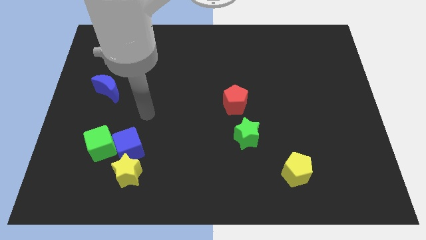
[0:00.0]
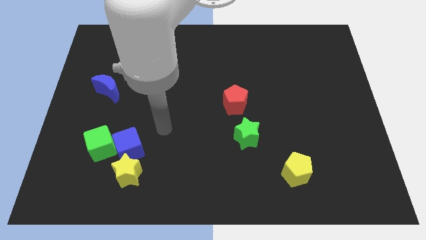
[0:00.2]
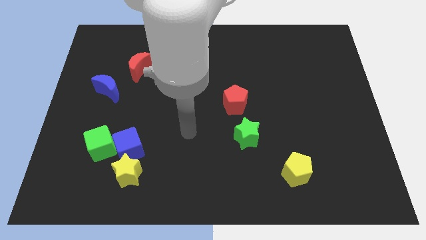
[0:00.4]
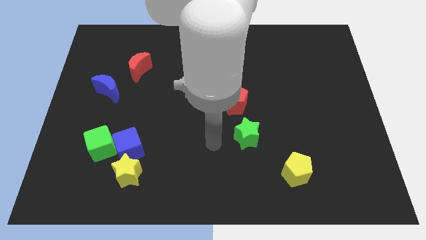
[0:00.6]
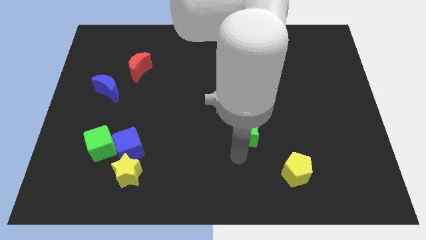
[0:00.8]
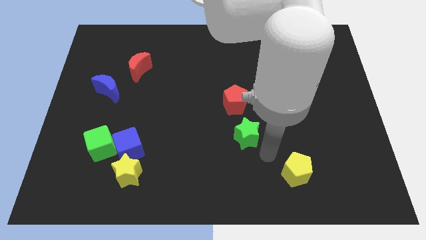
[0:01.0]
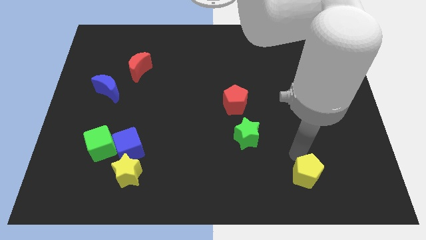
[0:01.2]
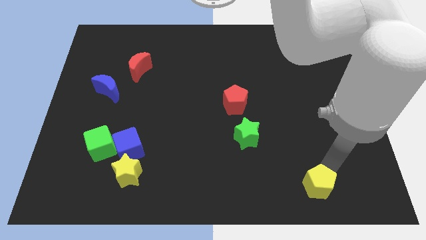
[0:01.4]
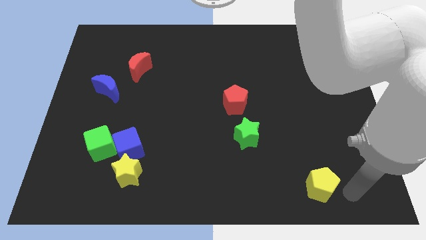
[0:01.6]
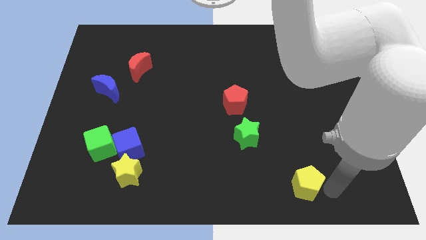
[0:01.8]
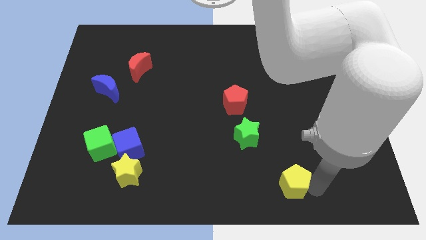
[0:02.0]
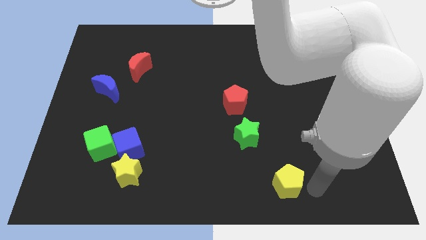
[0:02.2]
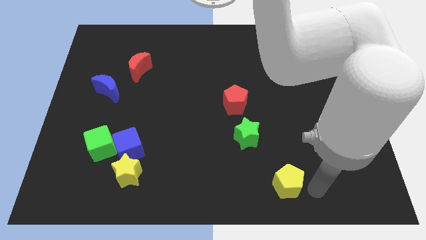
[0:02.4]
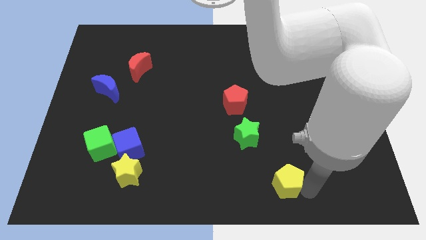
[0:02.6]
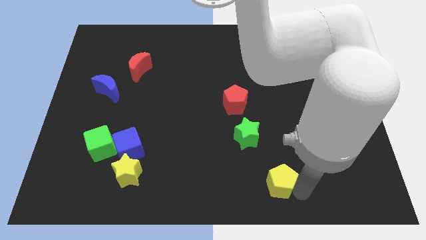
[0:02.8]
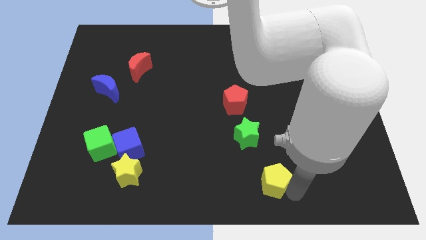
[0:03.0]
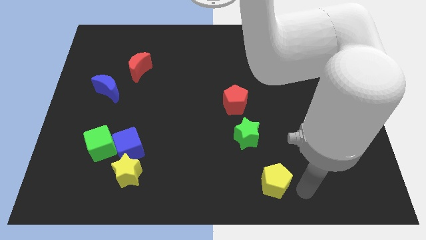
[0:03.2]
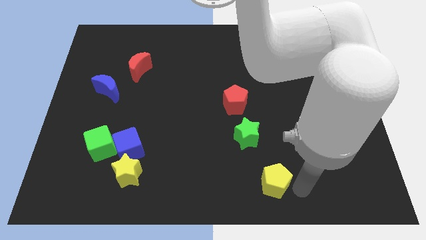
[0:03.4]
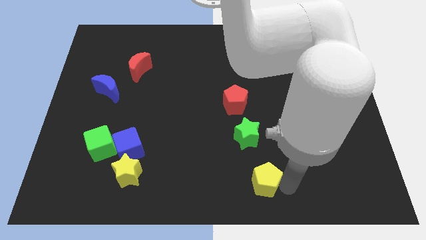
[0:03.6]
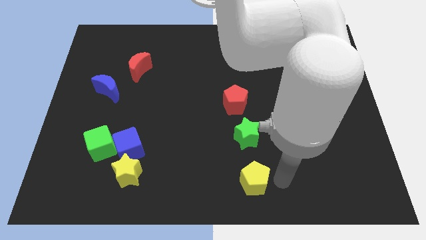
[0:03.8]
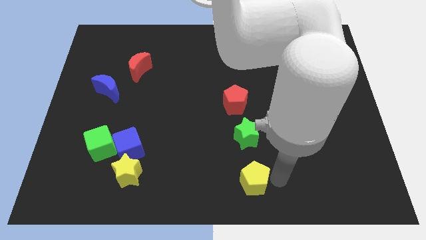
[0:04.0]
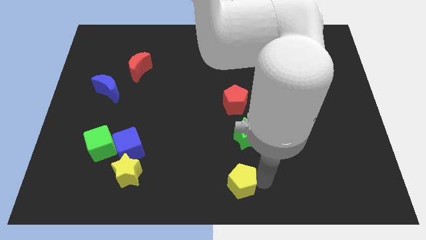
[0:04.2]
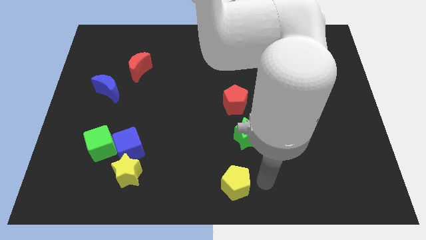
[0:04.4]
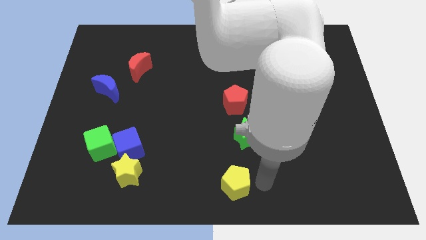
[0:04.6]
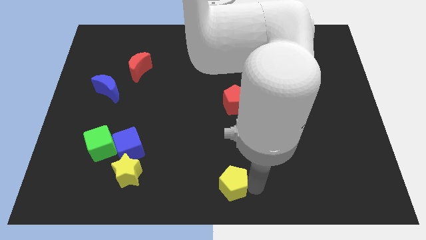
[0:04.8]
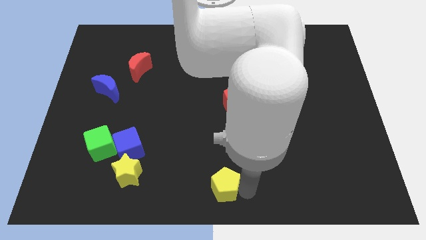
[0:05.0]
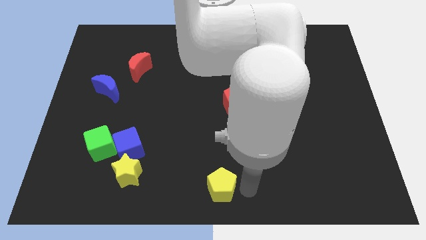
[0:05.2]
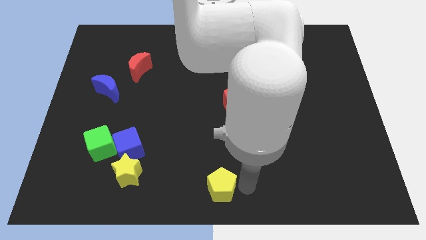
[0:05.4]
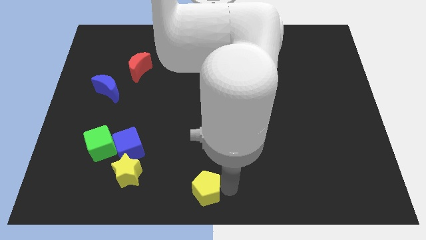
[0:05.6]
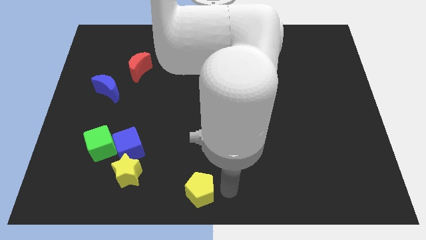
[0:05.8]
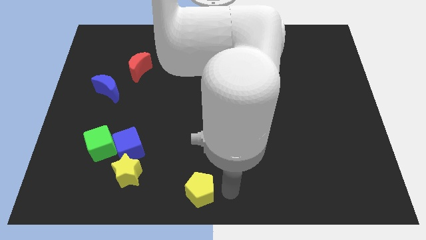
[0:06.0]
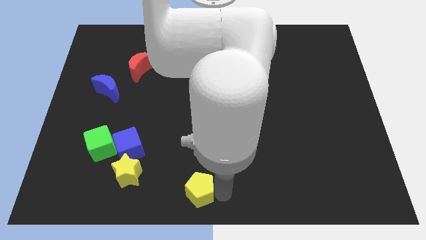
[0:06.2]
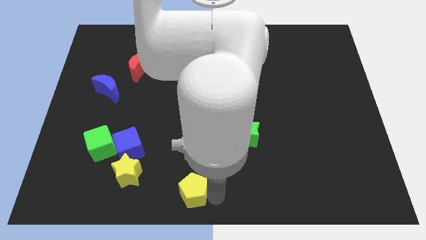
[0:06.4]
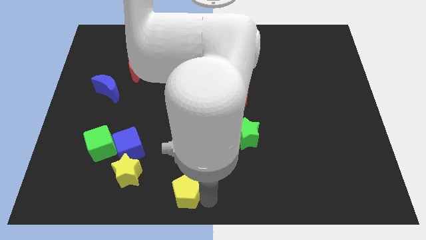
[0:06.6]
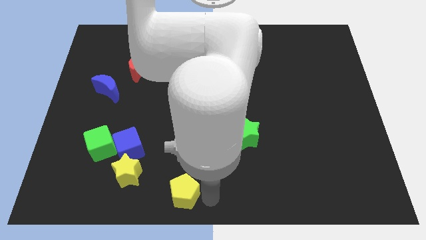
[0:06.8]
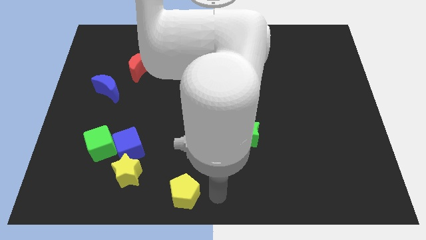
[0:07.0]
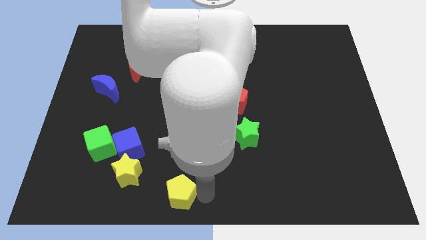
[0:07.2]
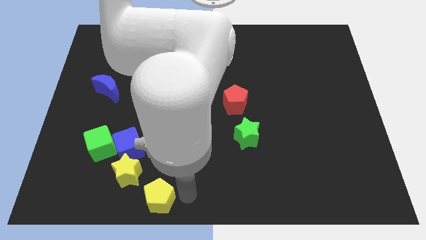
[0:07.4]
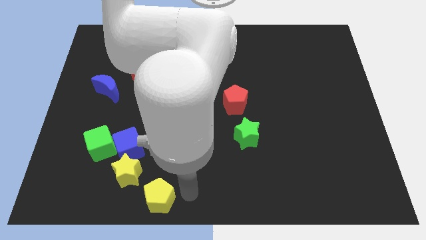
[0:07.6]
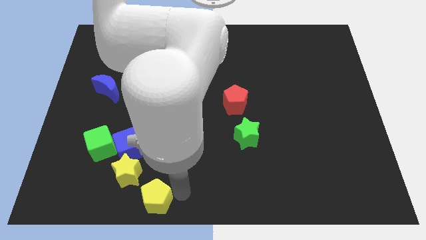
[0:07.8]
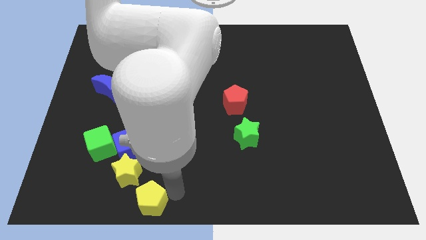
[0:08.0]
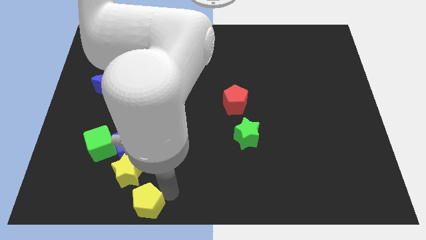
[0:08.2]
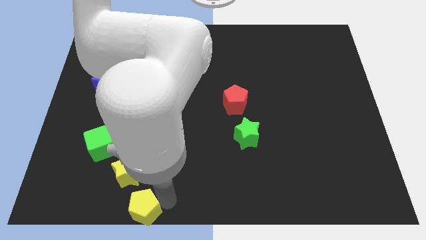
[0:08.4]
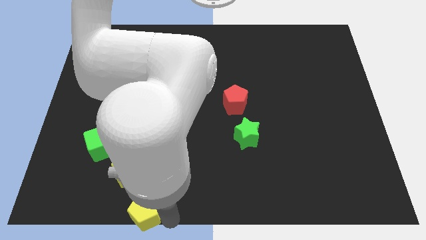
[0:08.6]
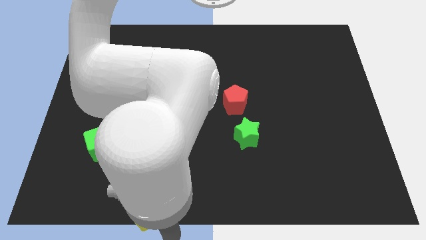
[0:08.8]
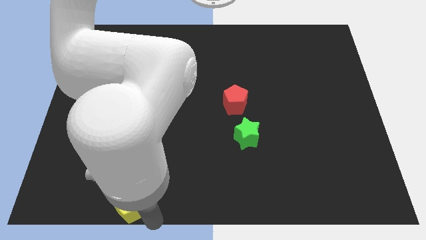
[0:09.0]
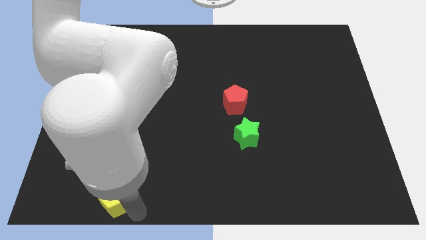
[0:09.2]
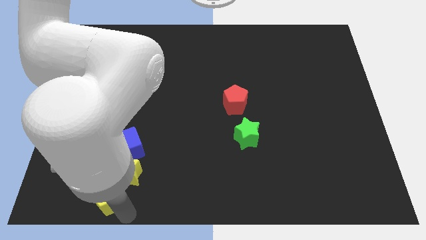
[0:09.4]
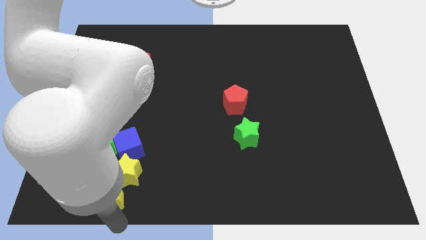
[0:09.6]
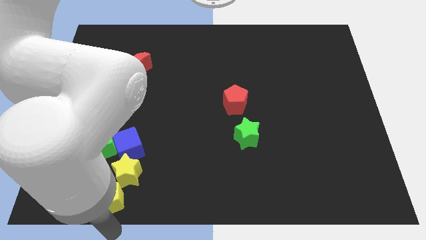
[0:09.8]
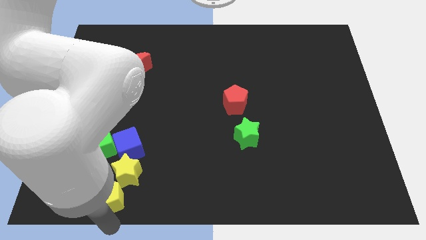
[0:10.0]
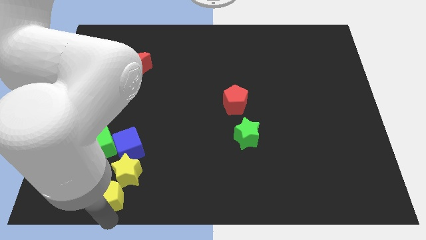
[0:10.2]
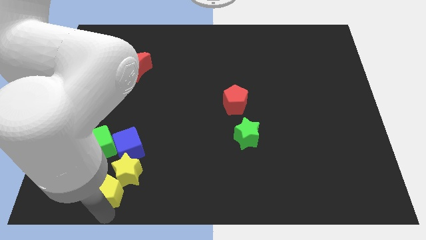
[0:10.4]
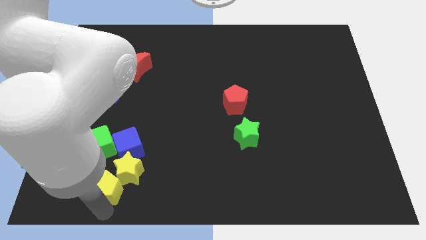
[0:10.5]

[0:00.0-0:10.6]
move the yellow pentagon diagonally down and to the left of the blue cube

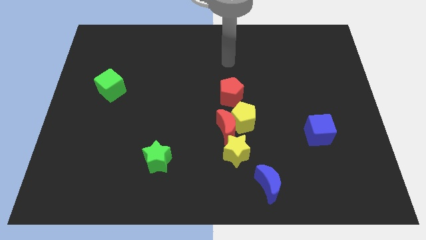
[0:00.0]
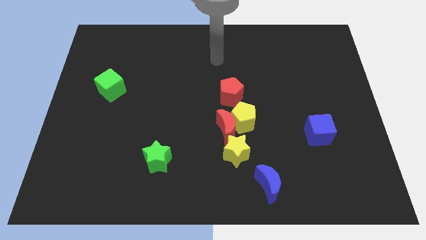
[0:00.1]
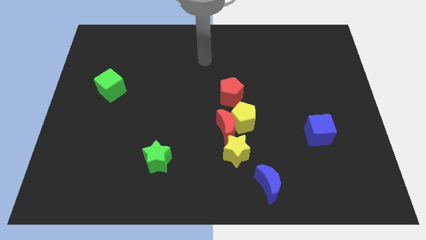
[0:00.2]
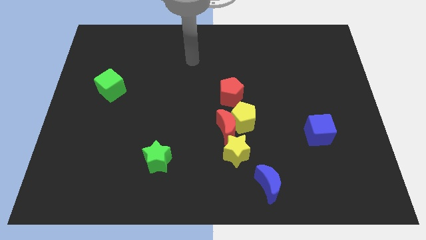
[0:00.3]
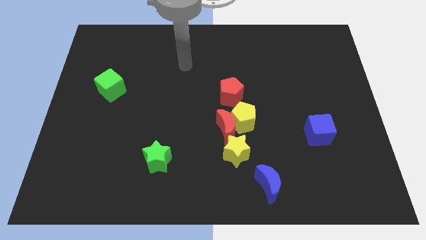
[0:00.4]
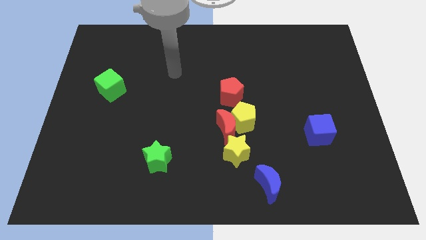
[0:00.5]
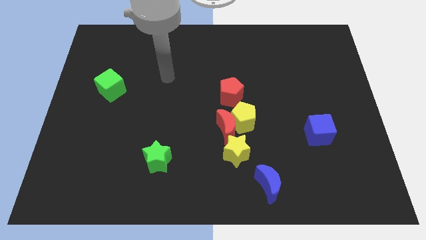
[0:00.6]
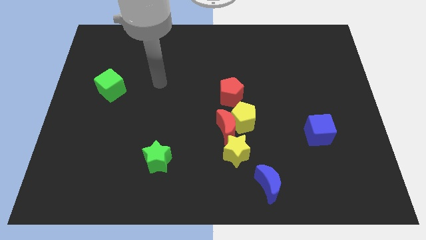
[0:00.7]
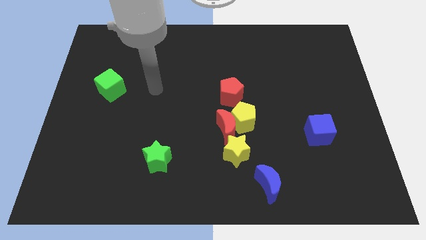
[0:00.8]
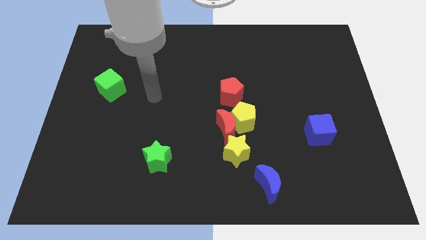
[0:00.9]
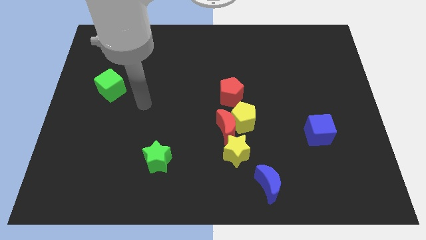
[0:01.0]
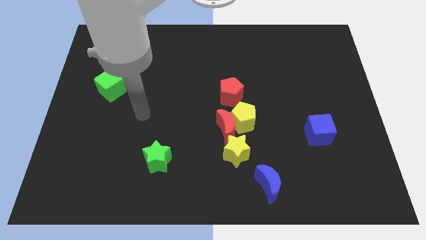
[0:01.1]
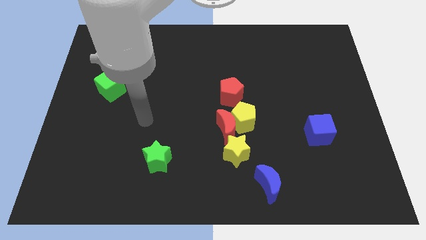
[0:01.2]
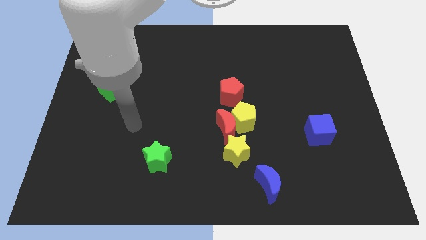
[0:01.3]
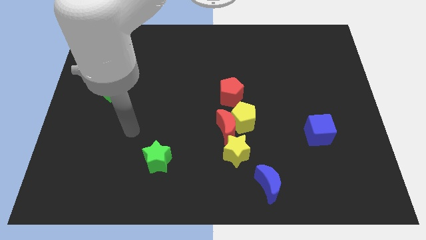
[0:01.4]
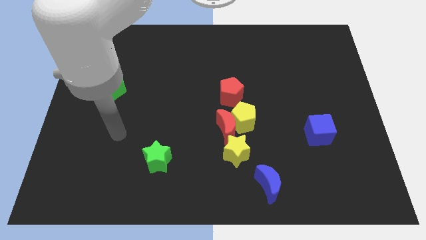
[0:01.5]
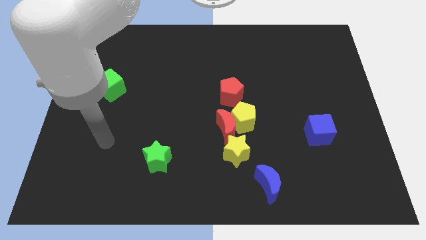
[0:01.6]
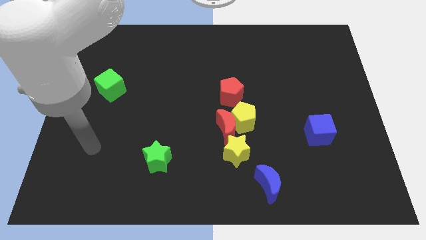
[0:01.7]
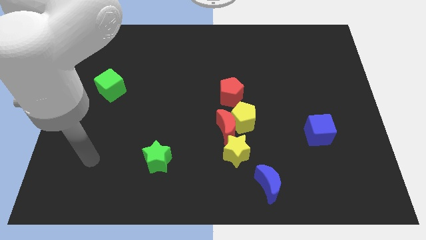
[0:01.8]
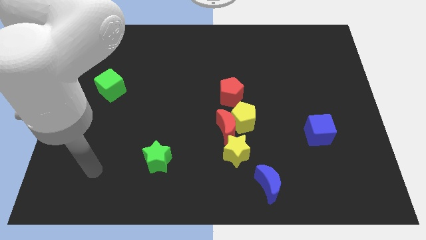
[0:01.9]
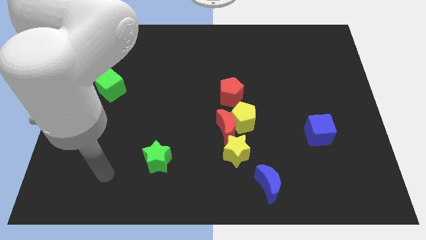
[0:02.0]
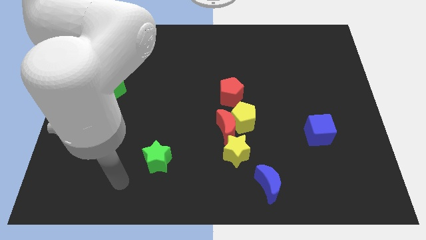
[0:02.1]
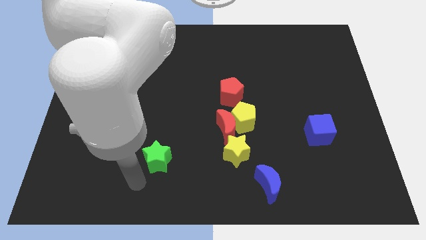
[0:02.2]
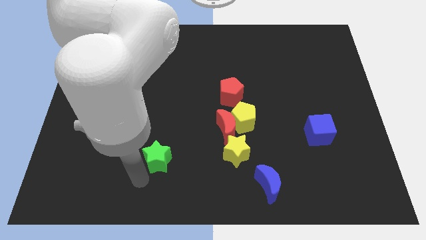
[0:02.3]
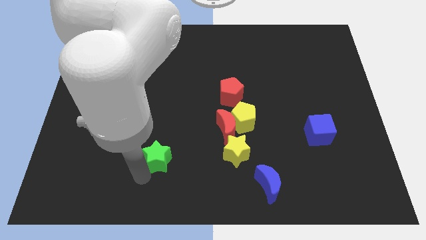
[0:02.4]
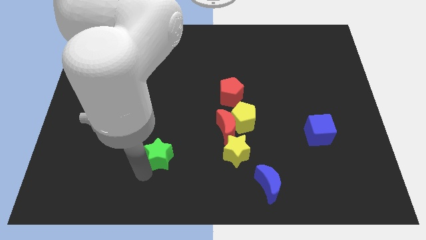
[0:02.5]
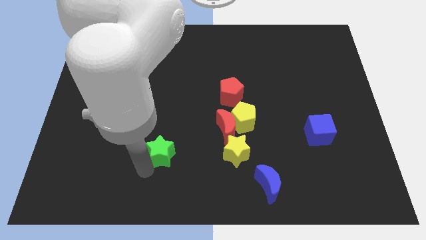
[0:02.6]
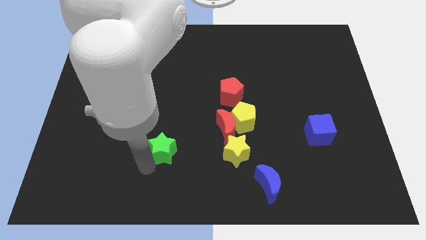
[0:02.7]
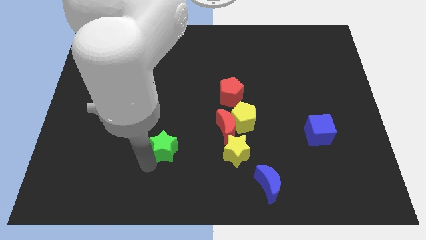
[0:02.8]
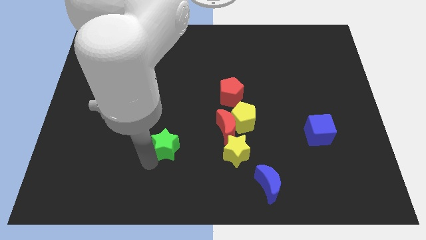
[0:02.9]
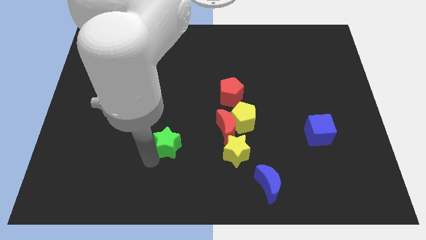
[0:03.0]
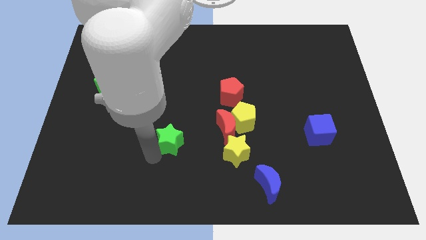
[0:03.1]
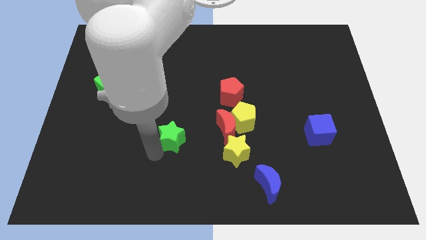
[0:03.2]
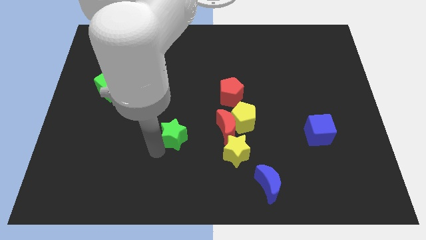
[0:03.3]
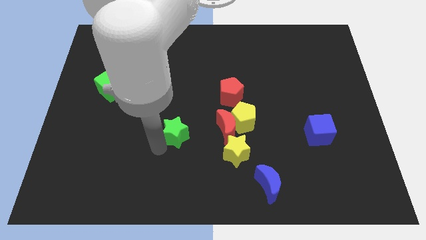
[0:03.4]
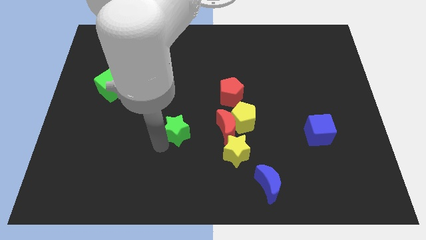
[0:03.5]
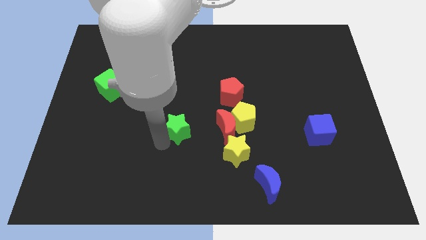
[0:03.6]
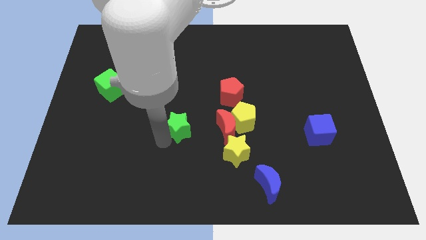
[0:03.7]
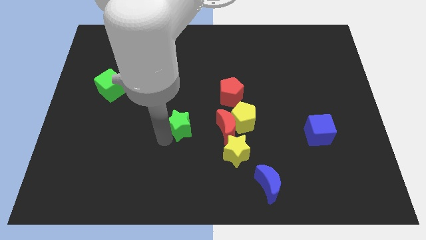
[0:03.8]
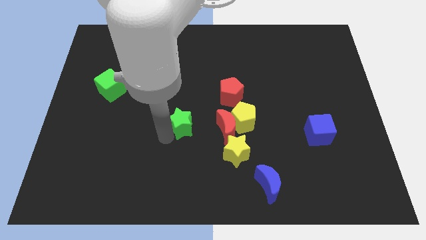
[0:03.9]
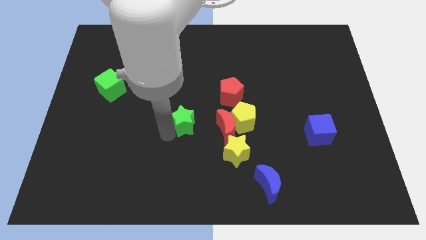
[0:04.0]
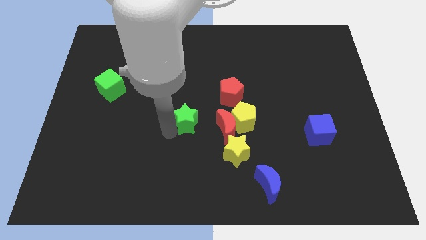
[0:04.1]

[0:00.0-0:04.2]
move the green star diagonally down and to the left of the red pentagon
